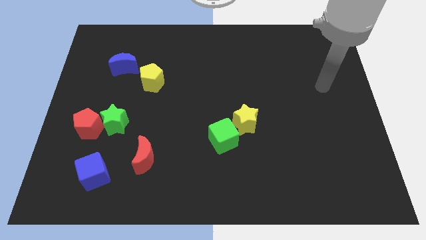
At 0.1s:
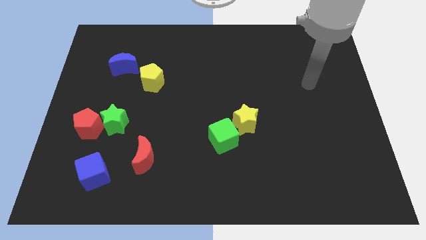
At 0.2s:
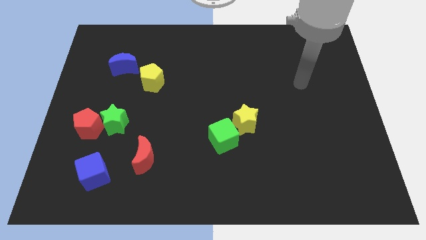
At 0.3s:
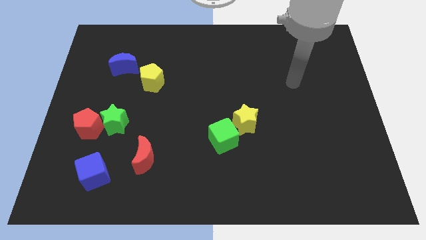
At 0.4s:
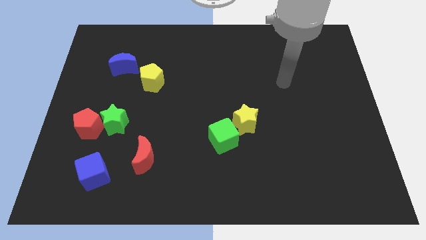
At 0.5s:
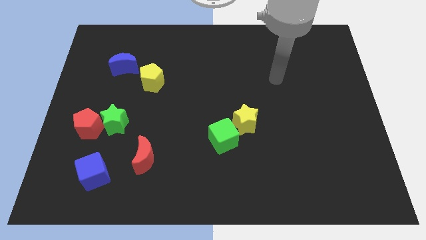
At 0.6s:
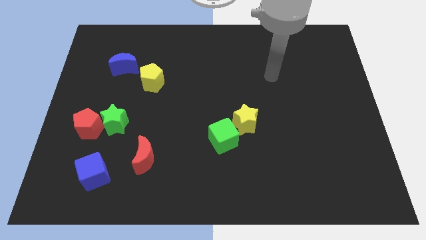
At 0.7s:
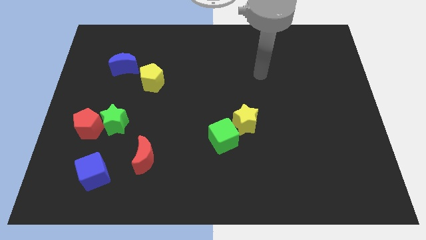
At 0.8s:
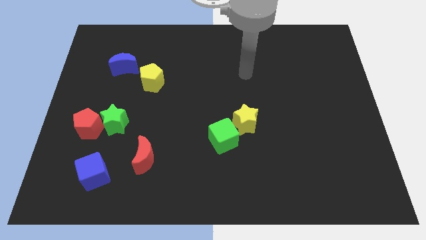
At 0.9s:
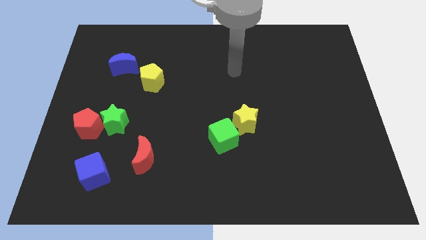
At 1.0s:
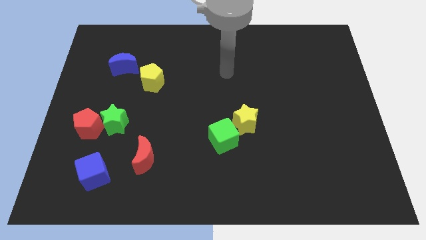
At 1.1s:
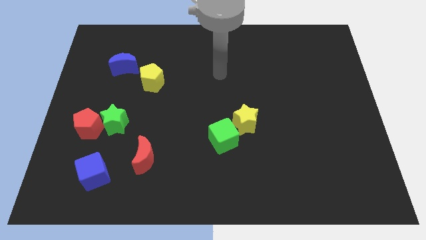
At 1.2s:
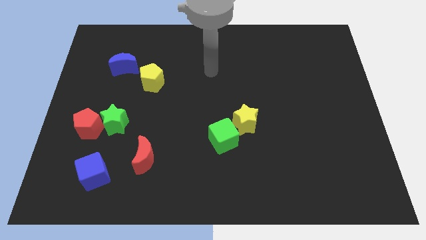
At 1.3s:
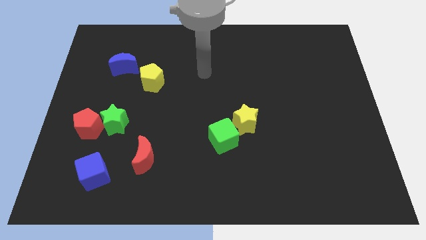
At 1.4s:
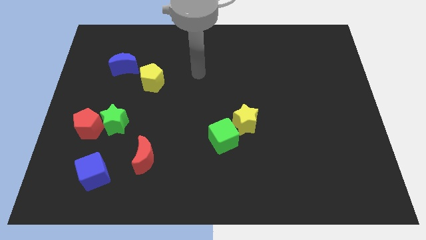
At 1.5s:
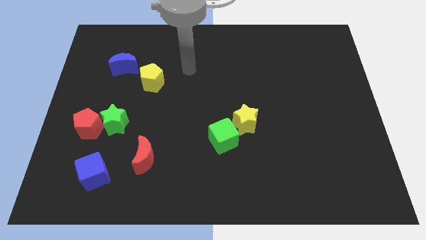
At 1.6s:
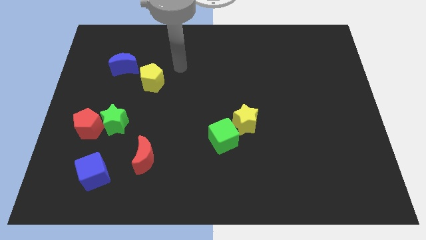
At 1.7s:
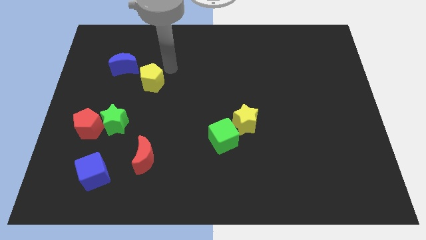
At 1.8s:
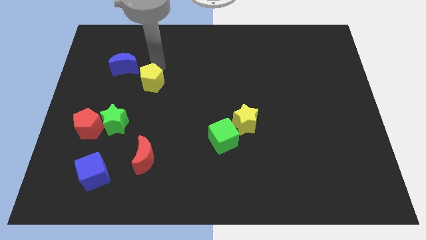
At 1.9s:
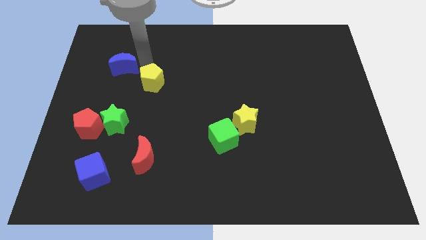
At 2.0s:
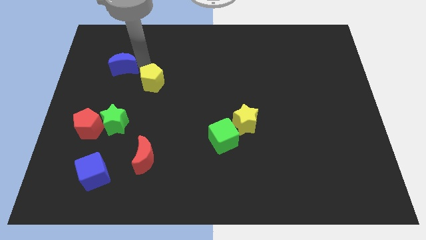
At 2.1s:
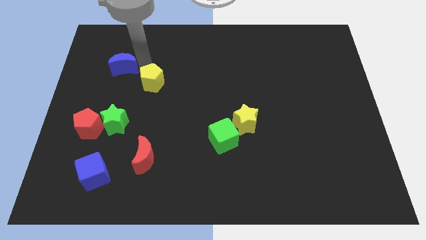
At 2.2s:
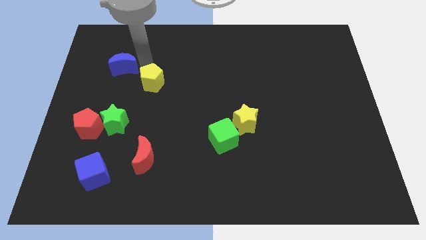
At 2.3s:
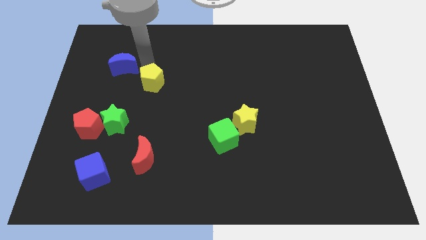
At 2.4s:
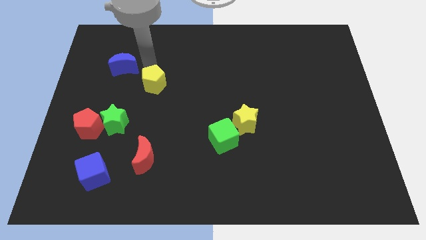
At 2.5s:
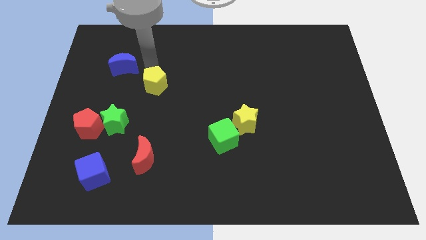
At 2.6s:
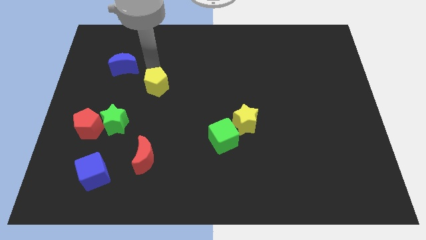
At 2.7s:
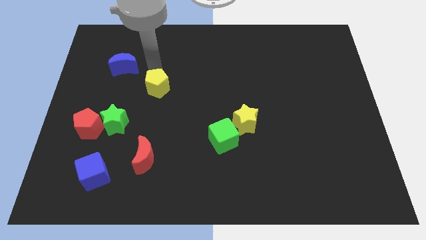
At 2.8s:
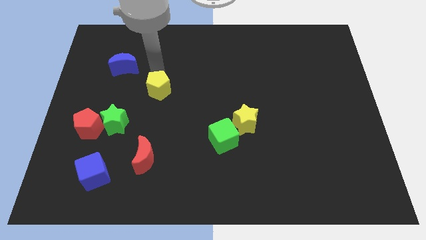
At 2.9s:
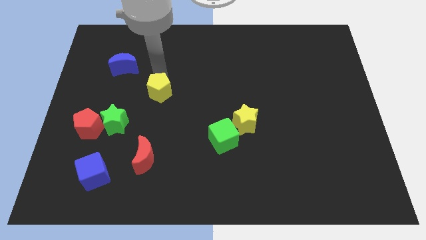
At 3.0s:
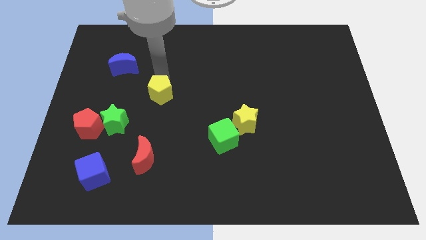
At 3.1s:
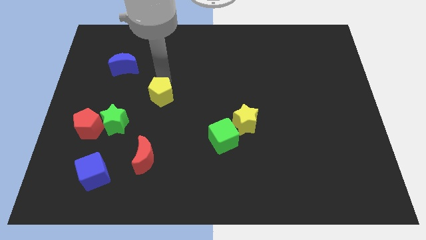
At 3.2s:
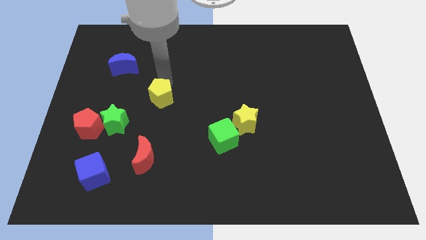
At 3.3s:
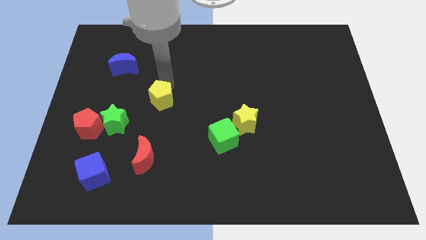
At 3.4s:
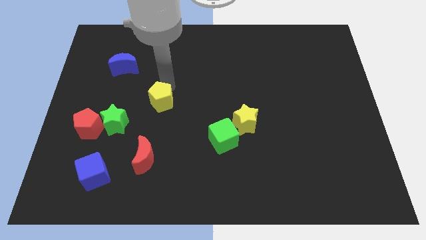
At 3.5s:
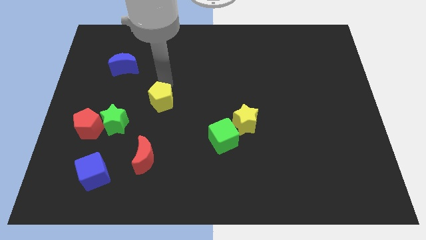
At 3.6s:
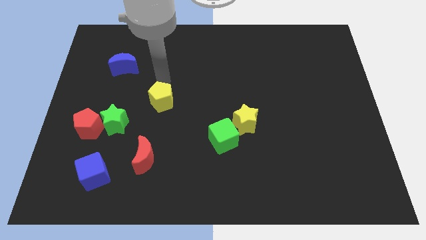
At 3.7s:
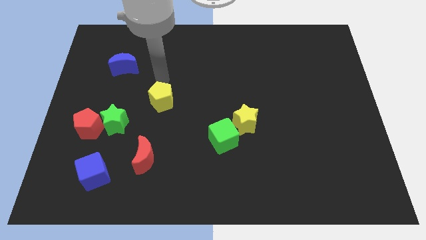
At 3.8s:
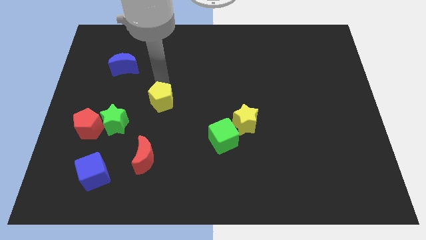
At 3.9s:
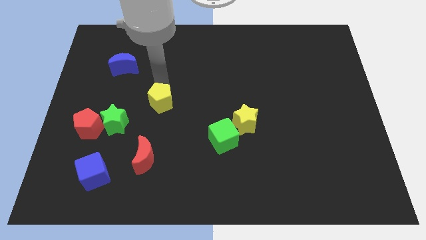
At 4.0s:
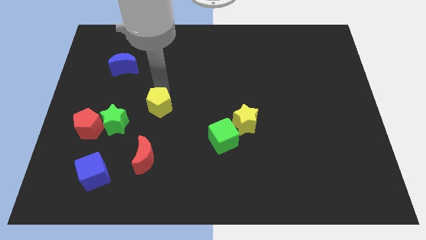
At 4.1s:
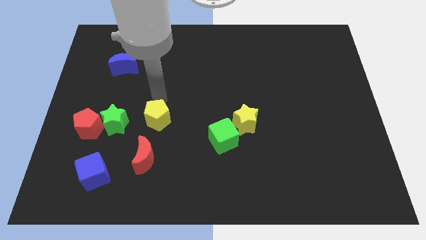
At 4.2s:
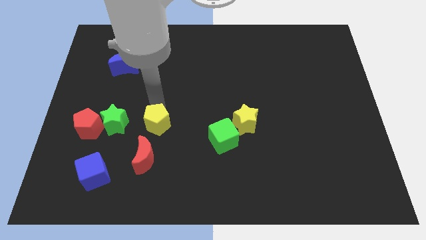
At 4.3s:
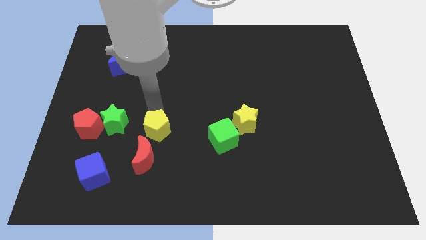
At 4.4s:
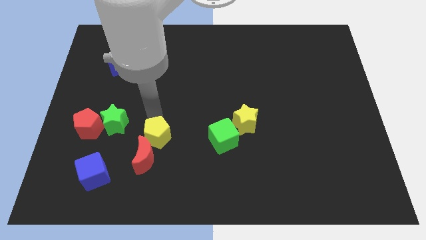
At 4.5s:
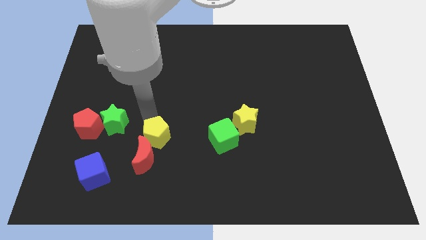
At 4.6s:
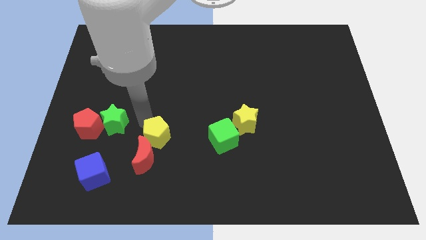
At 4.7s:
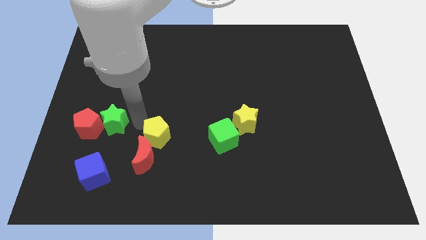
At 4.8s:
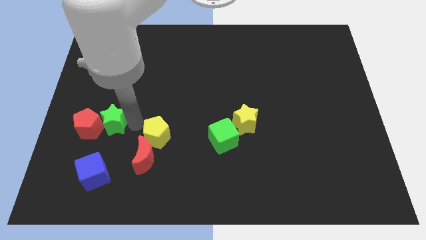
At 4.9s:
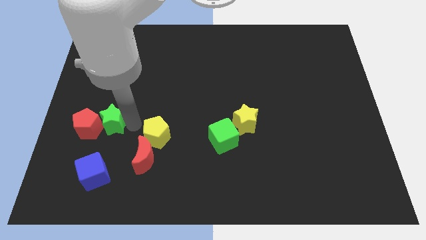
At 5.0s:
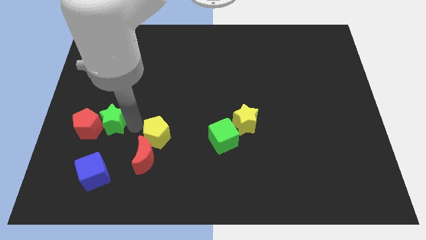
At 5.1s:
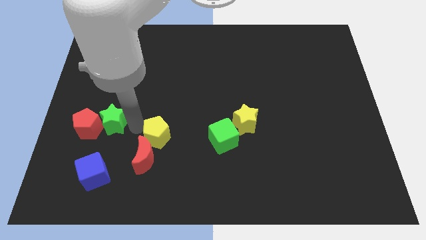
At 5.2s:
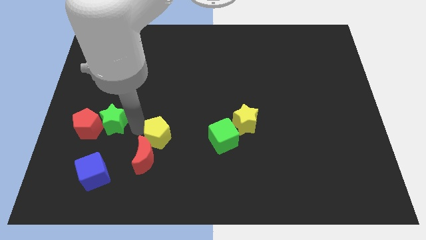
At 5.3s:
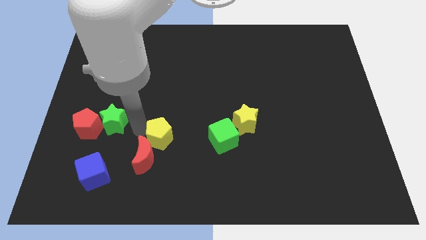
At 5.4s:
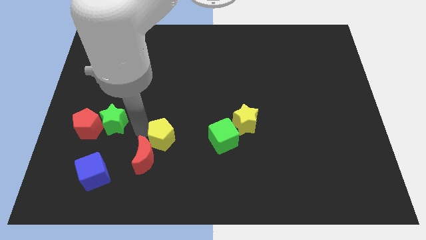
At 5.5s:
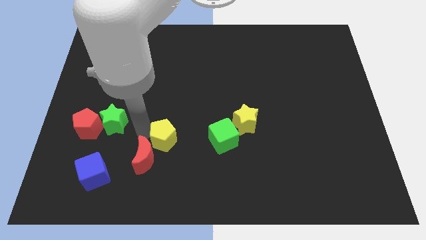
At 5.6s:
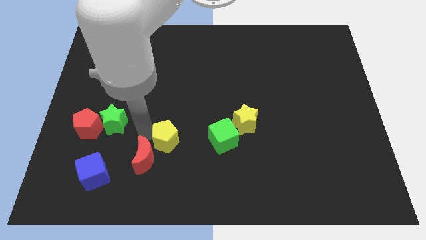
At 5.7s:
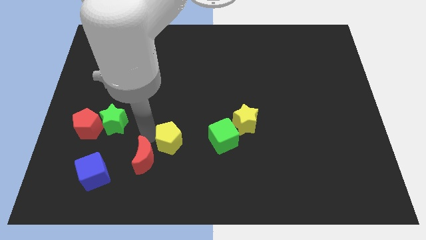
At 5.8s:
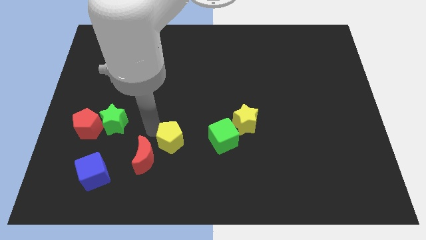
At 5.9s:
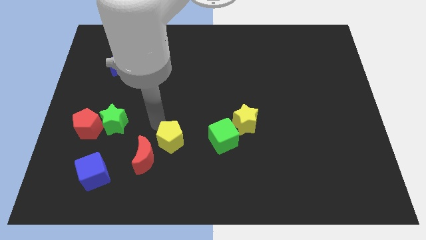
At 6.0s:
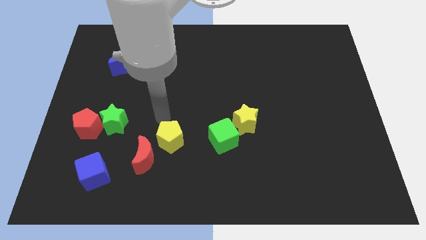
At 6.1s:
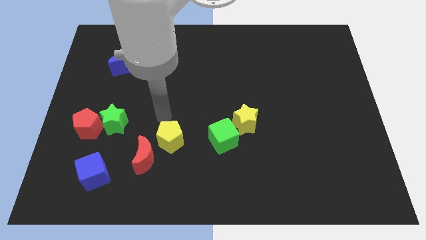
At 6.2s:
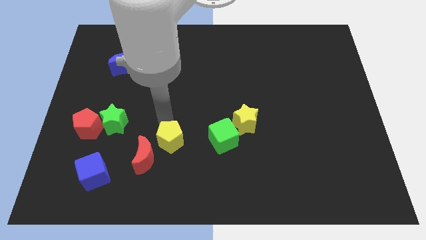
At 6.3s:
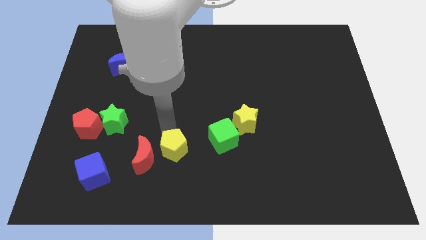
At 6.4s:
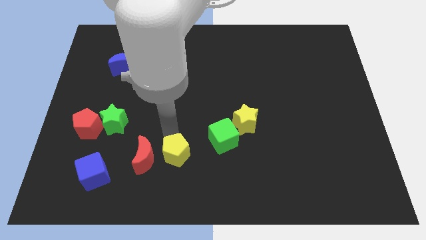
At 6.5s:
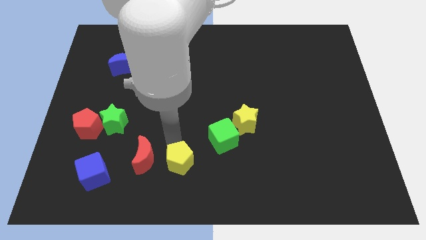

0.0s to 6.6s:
move the yellow pentagon to the bottom side
